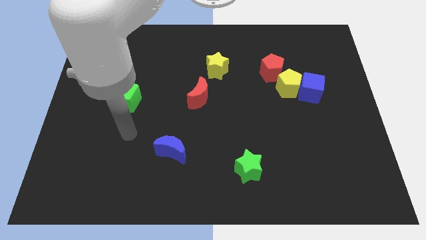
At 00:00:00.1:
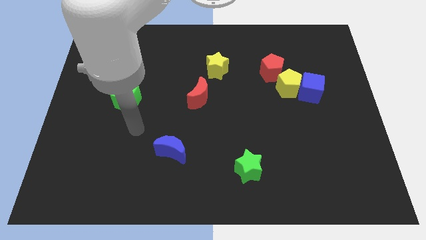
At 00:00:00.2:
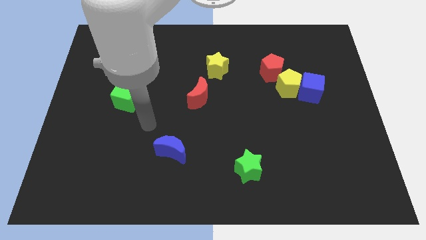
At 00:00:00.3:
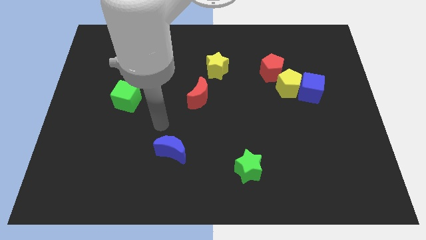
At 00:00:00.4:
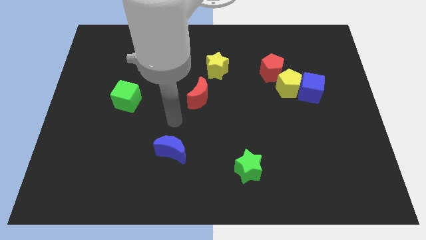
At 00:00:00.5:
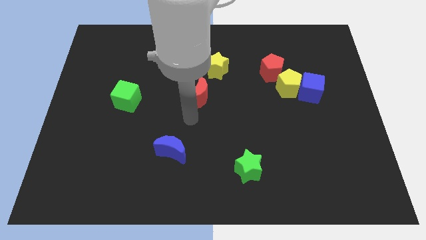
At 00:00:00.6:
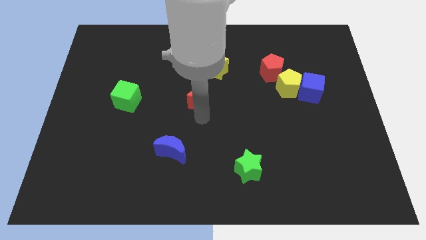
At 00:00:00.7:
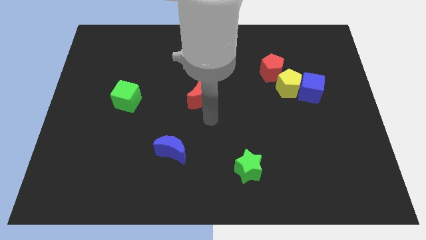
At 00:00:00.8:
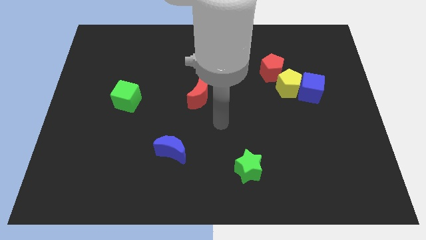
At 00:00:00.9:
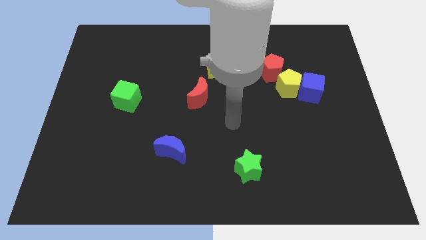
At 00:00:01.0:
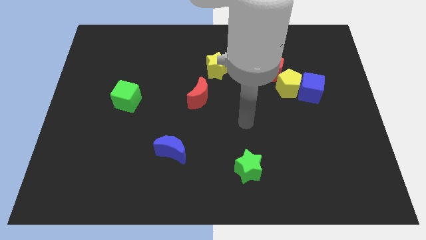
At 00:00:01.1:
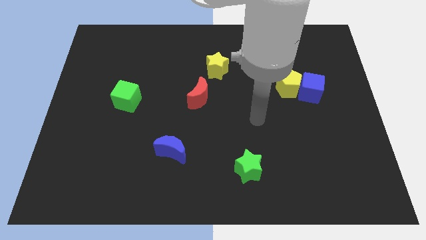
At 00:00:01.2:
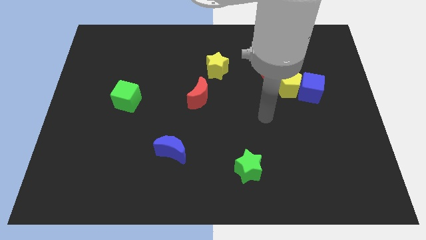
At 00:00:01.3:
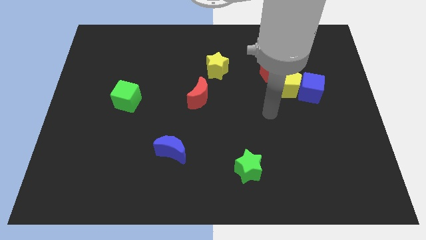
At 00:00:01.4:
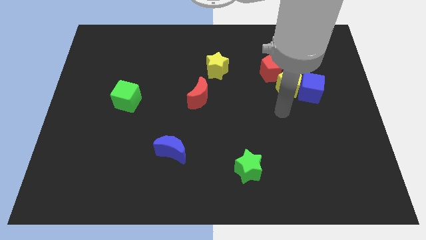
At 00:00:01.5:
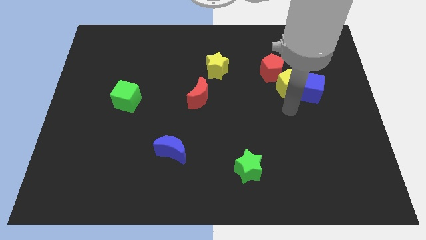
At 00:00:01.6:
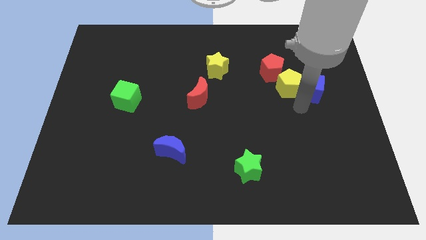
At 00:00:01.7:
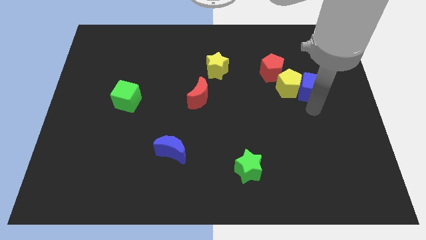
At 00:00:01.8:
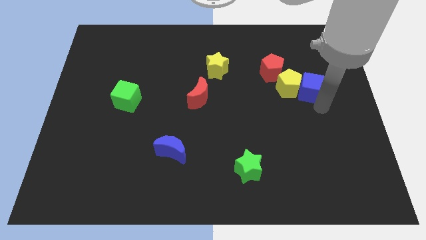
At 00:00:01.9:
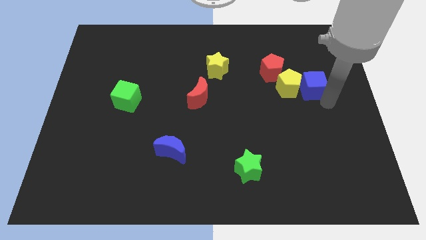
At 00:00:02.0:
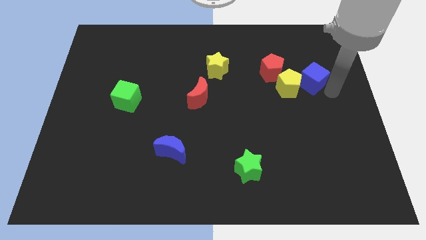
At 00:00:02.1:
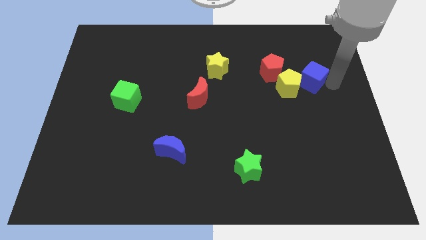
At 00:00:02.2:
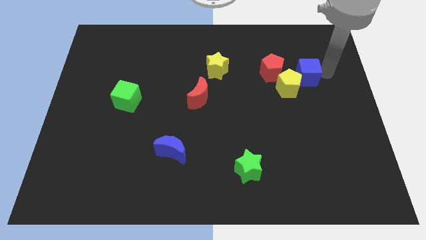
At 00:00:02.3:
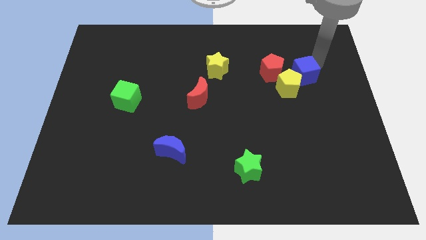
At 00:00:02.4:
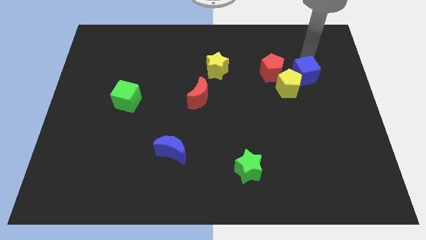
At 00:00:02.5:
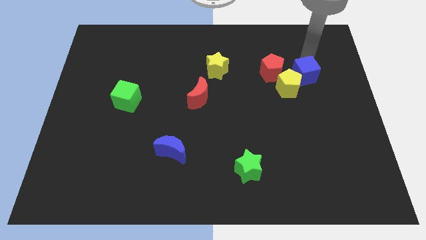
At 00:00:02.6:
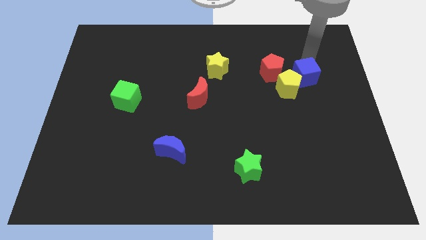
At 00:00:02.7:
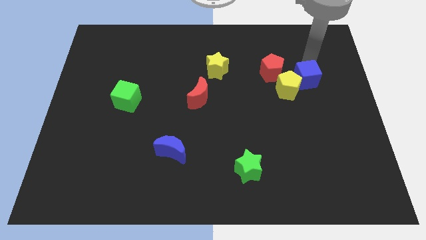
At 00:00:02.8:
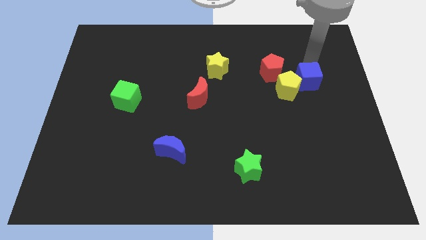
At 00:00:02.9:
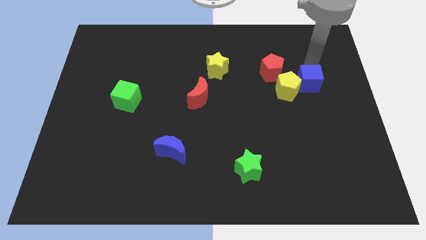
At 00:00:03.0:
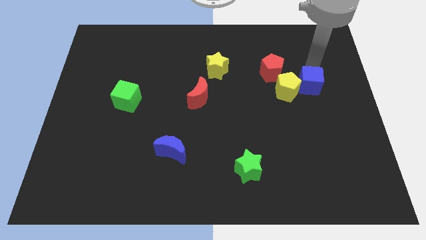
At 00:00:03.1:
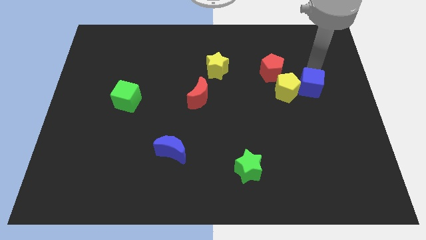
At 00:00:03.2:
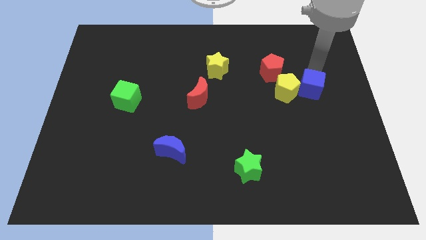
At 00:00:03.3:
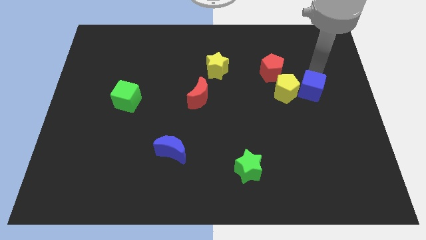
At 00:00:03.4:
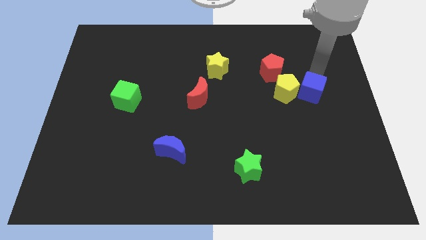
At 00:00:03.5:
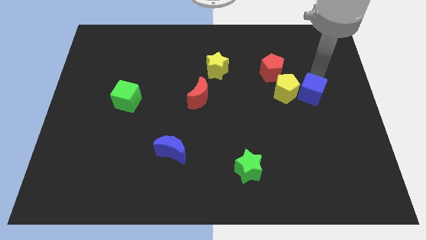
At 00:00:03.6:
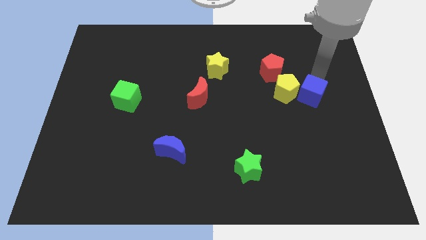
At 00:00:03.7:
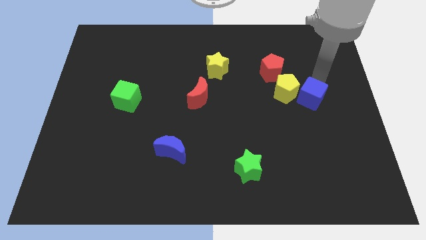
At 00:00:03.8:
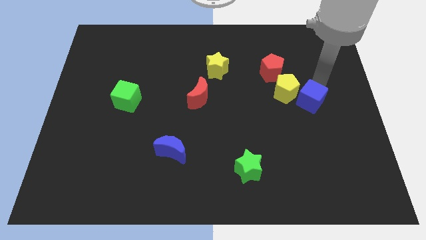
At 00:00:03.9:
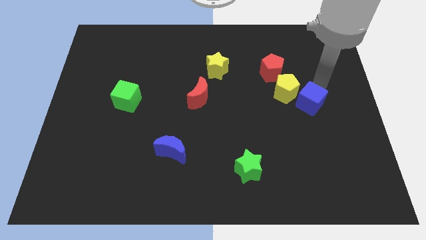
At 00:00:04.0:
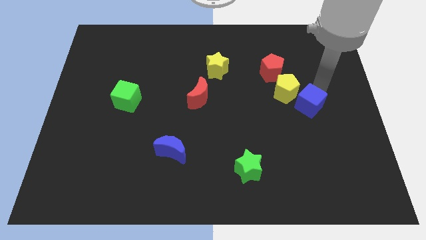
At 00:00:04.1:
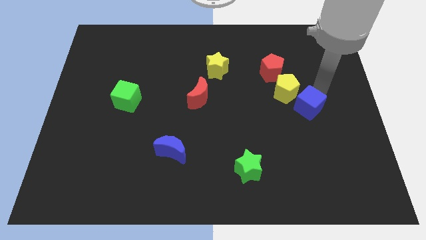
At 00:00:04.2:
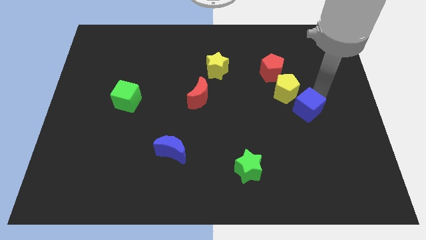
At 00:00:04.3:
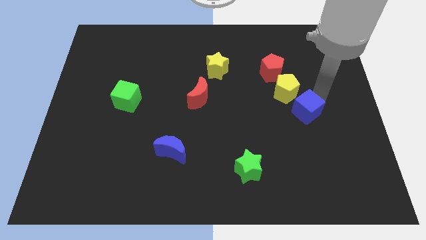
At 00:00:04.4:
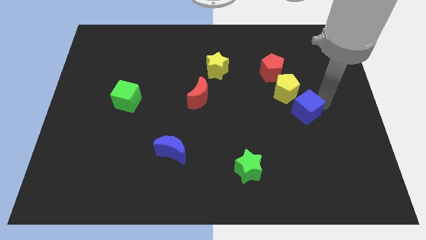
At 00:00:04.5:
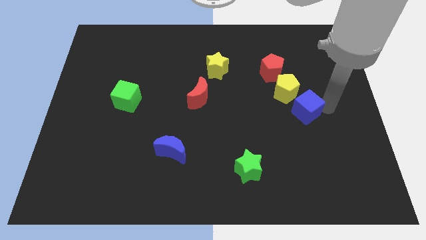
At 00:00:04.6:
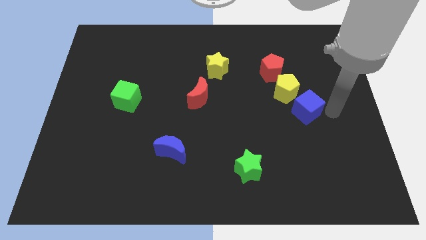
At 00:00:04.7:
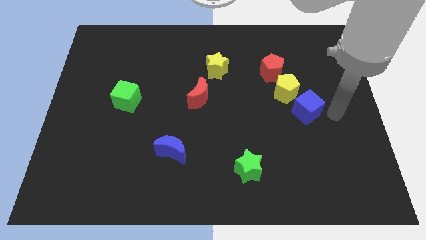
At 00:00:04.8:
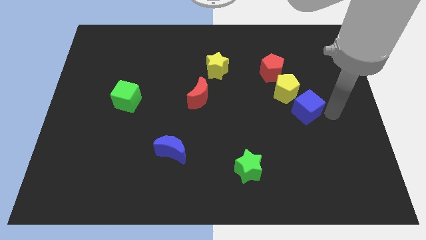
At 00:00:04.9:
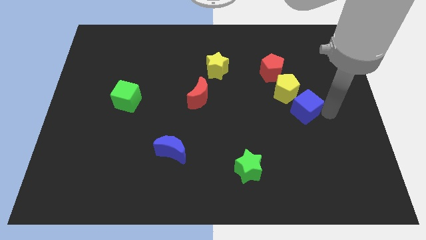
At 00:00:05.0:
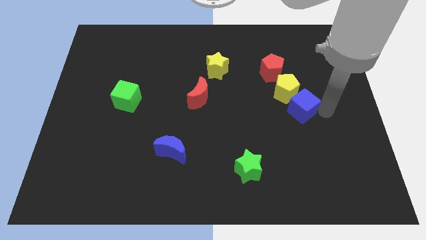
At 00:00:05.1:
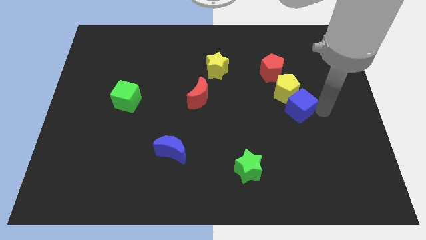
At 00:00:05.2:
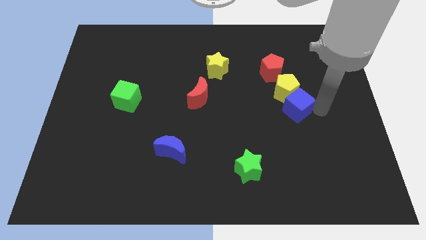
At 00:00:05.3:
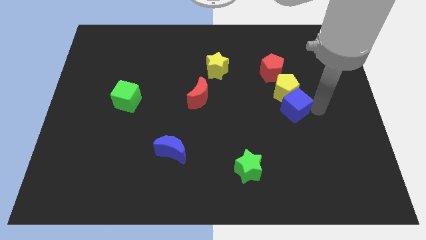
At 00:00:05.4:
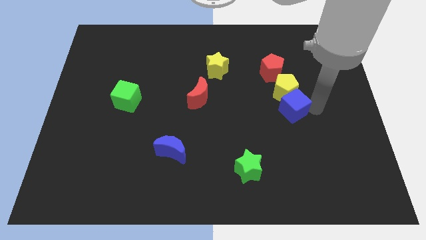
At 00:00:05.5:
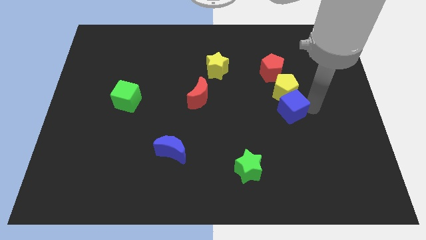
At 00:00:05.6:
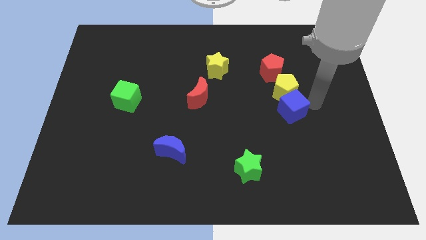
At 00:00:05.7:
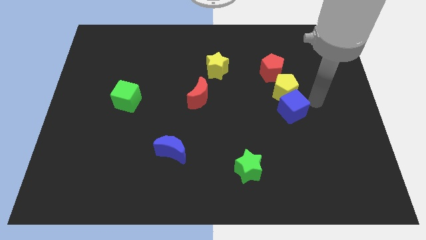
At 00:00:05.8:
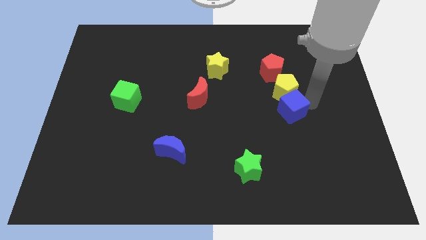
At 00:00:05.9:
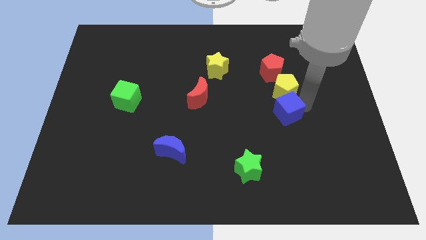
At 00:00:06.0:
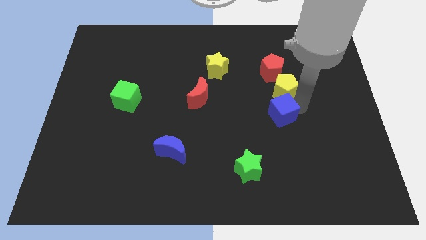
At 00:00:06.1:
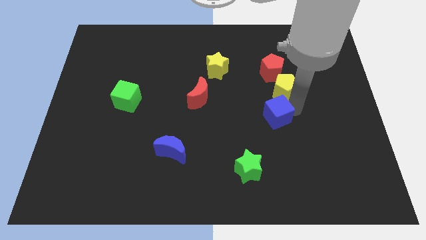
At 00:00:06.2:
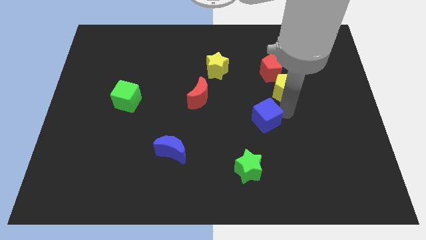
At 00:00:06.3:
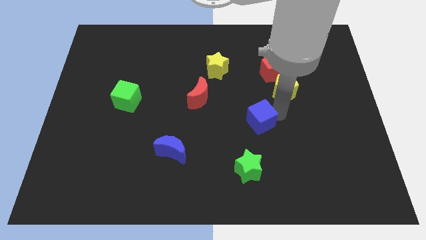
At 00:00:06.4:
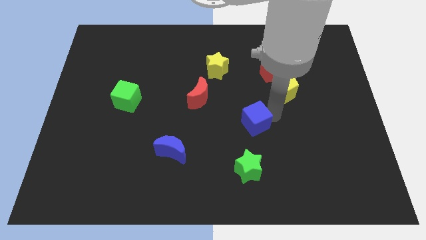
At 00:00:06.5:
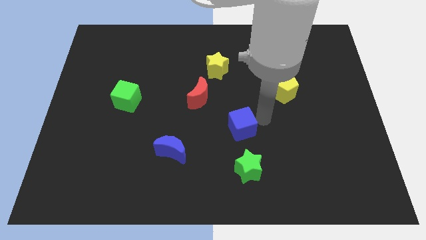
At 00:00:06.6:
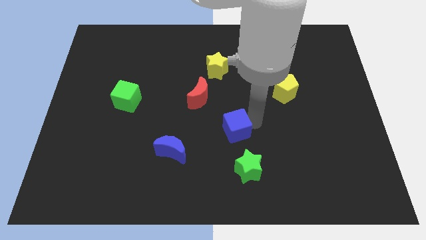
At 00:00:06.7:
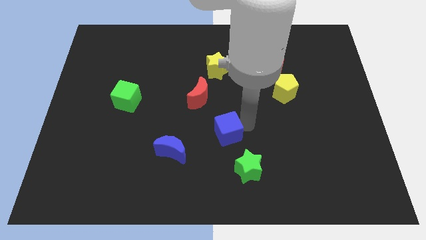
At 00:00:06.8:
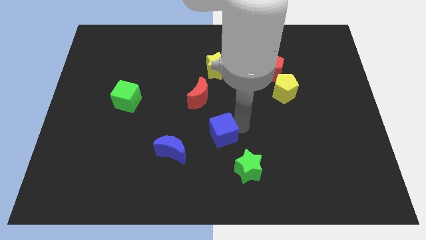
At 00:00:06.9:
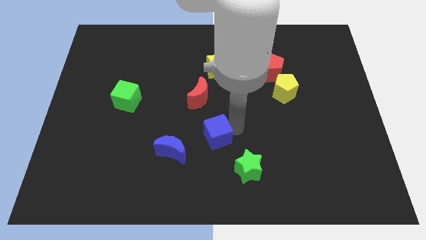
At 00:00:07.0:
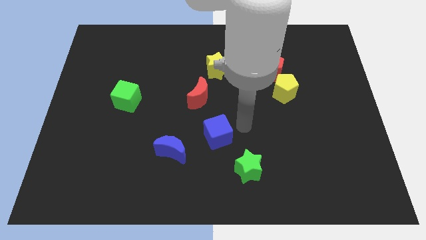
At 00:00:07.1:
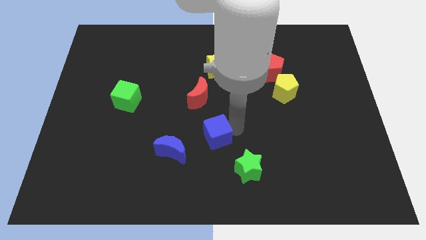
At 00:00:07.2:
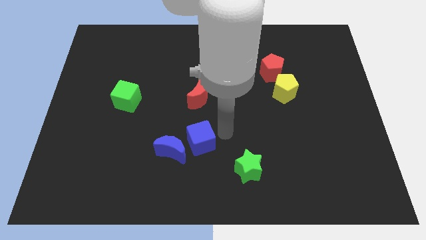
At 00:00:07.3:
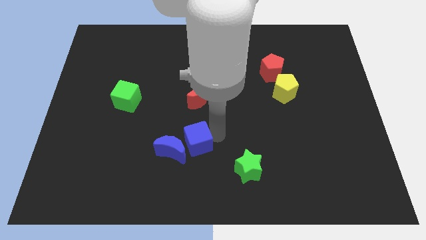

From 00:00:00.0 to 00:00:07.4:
put the blue cube next to the blue moon

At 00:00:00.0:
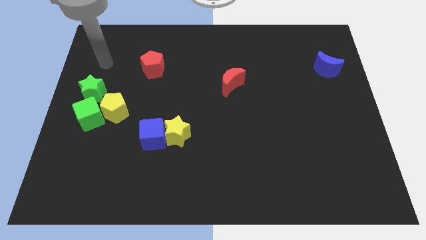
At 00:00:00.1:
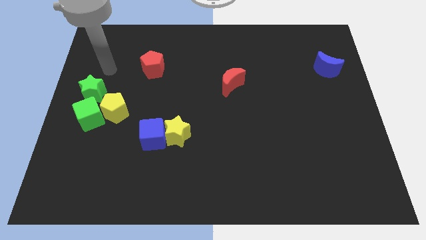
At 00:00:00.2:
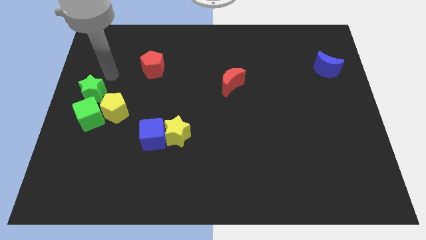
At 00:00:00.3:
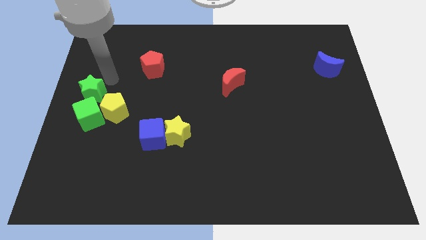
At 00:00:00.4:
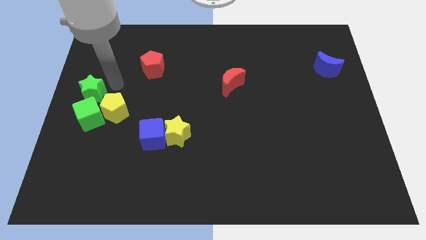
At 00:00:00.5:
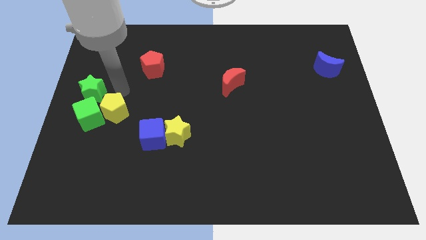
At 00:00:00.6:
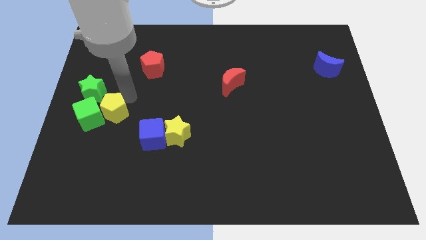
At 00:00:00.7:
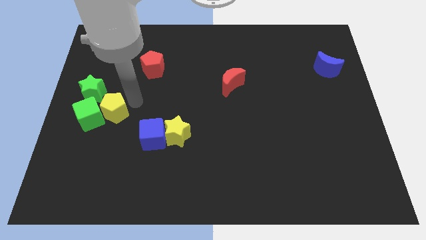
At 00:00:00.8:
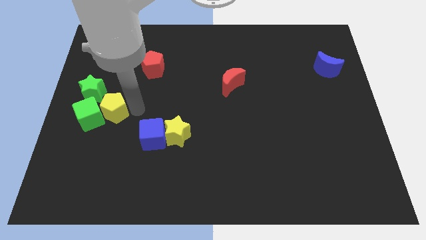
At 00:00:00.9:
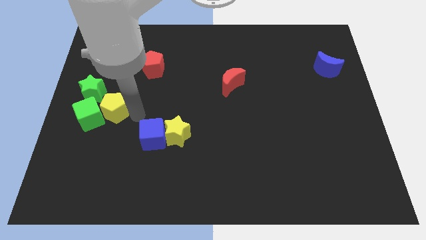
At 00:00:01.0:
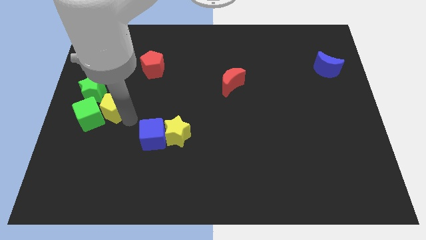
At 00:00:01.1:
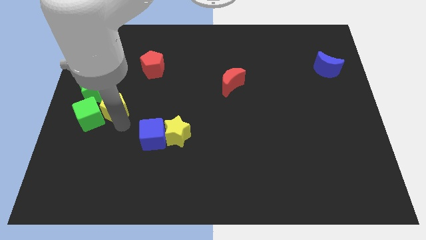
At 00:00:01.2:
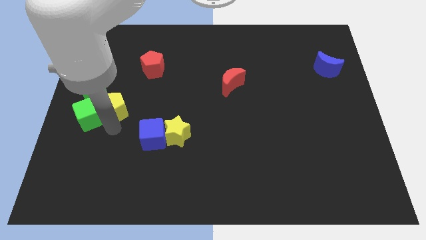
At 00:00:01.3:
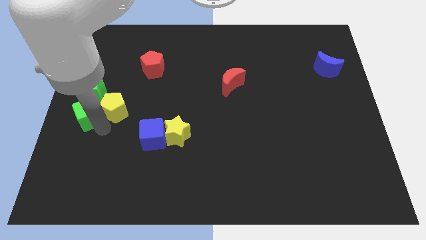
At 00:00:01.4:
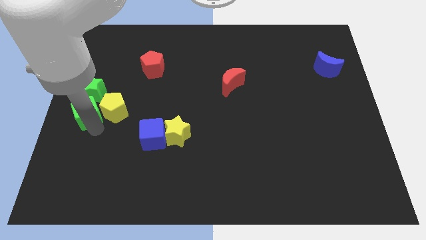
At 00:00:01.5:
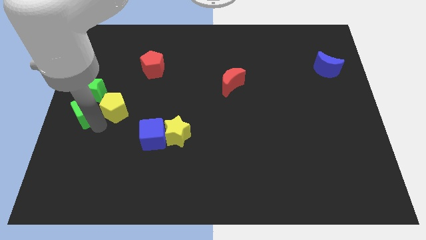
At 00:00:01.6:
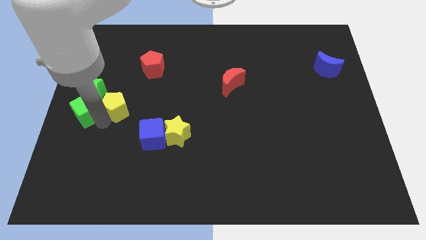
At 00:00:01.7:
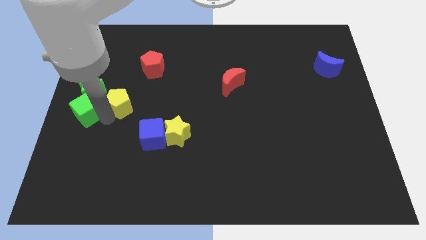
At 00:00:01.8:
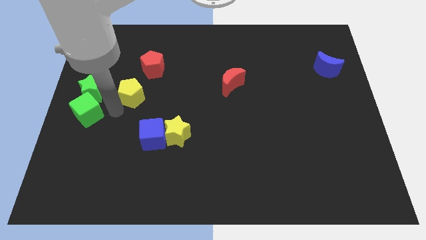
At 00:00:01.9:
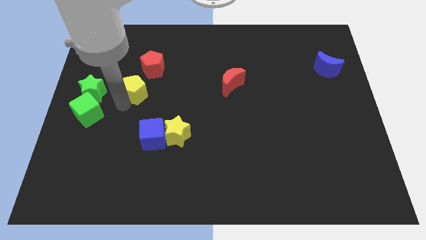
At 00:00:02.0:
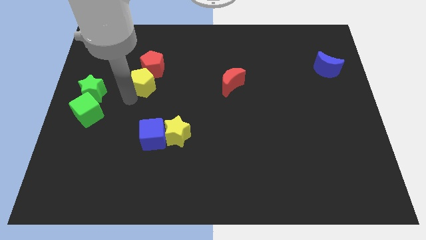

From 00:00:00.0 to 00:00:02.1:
slide the yellow pentagon next to the red pentagon
